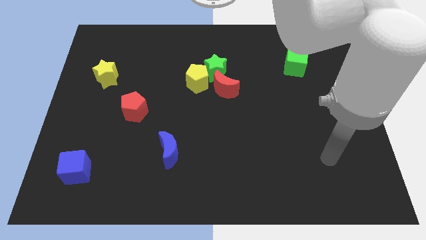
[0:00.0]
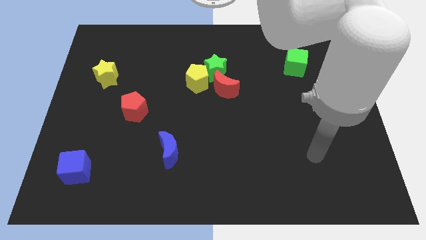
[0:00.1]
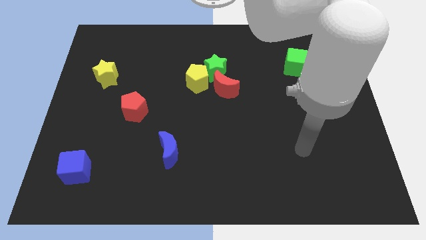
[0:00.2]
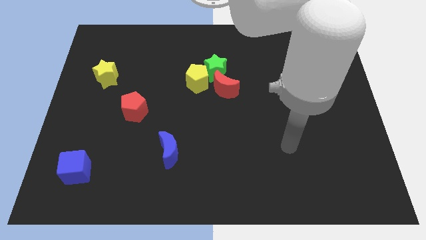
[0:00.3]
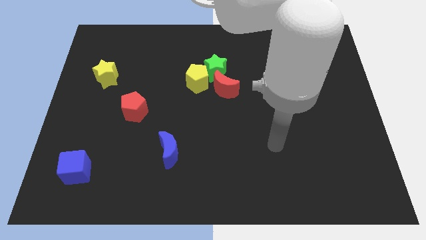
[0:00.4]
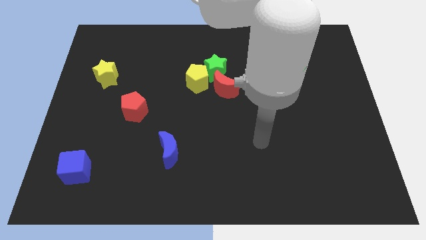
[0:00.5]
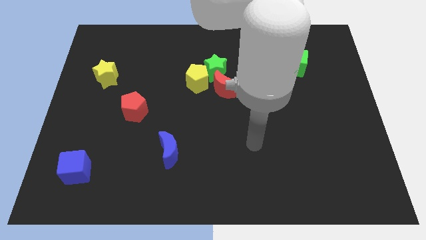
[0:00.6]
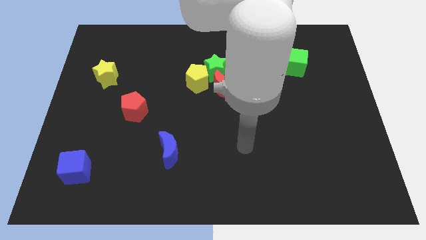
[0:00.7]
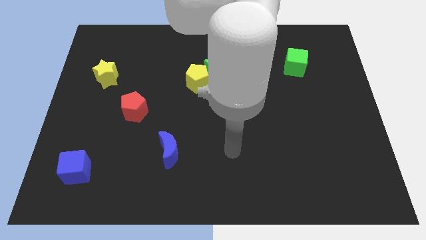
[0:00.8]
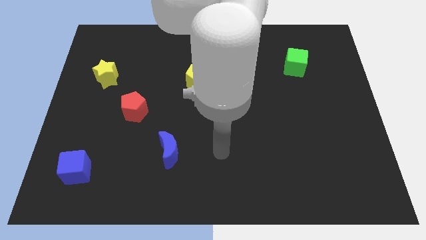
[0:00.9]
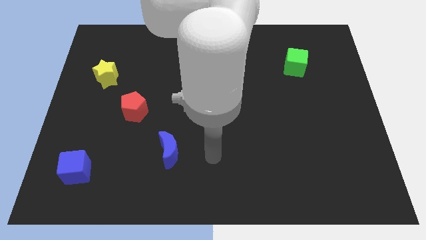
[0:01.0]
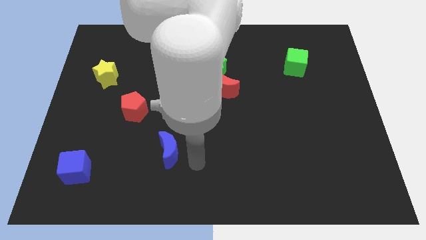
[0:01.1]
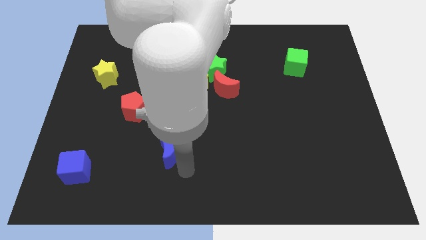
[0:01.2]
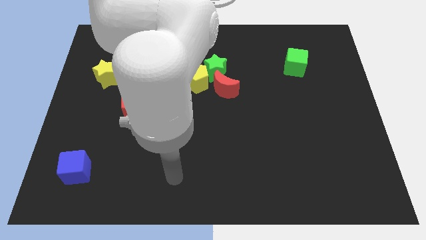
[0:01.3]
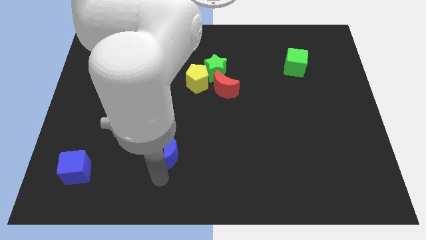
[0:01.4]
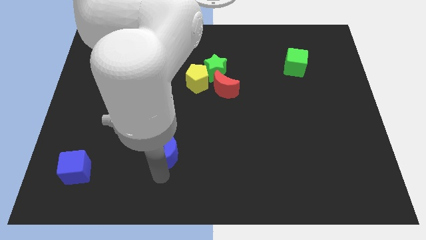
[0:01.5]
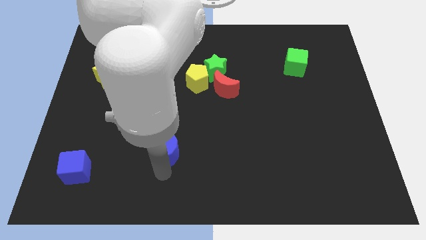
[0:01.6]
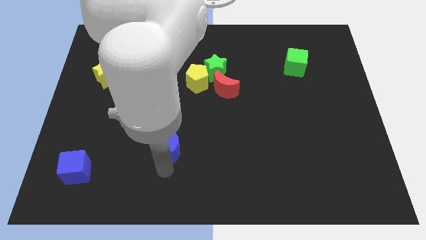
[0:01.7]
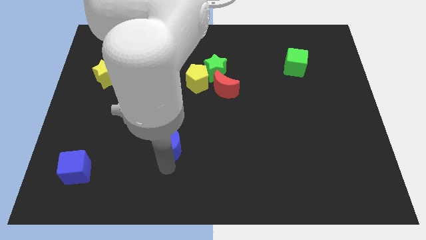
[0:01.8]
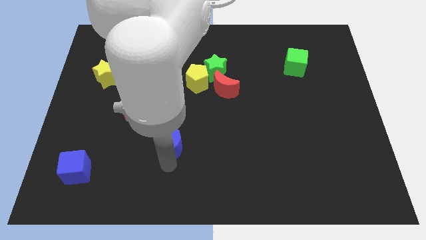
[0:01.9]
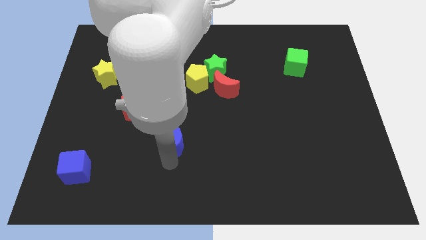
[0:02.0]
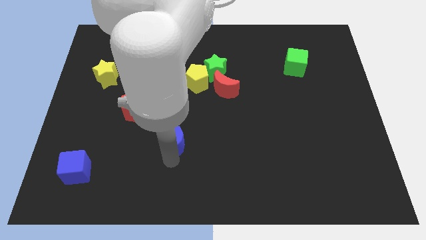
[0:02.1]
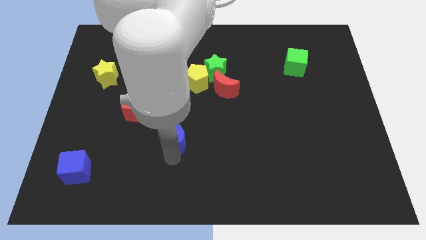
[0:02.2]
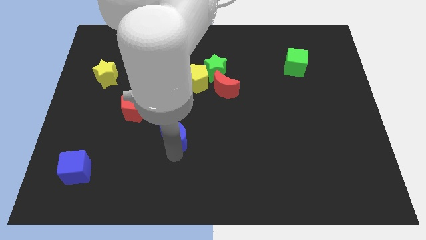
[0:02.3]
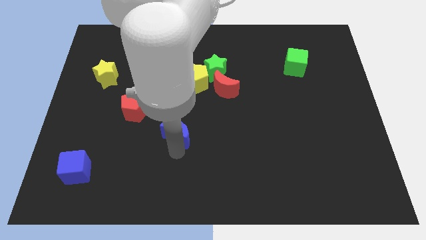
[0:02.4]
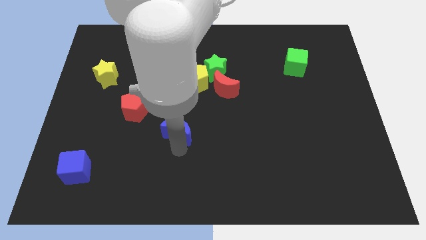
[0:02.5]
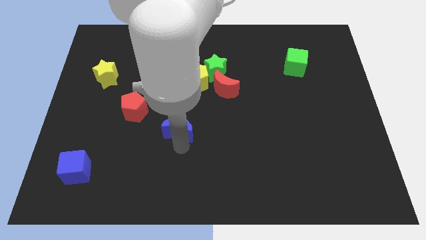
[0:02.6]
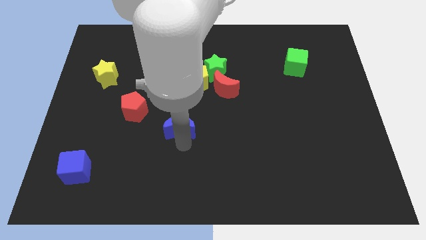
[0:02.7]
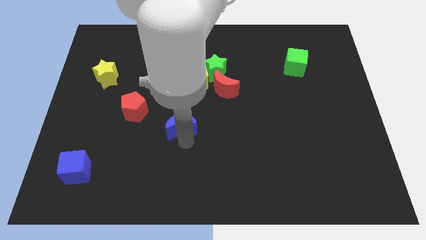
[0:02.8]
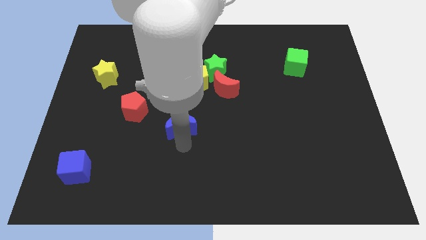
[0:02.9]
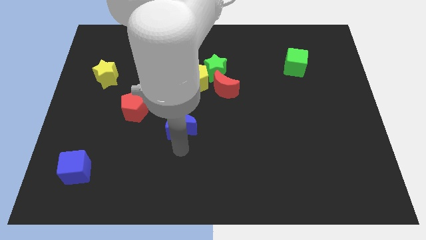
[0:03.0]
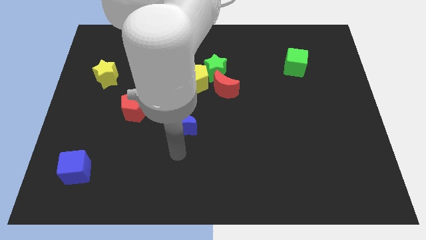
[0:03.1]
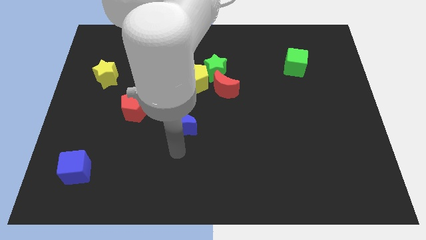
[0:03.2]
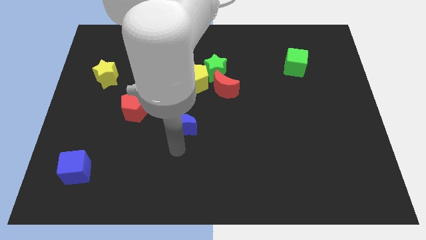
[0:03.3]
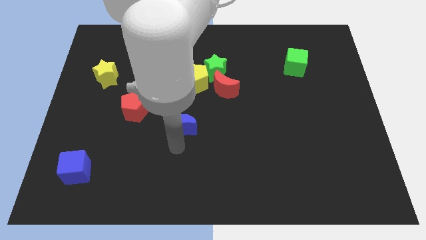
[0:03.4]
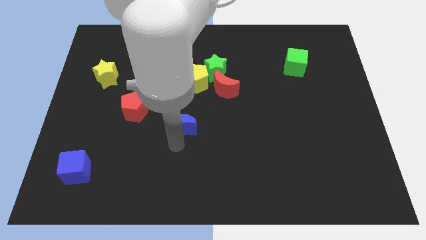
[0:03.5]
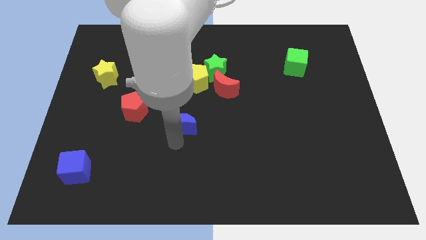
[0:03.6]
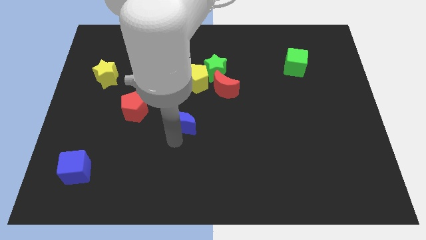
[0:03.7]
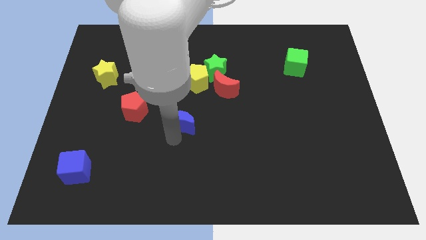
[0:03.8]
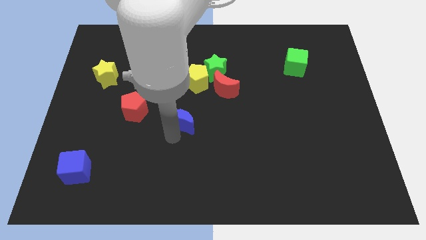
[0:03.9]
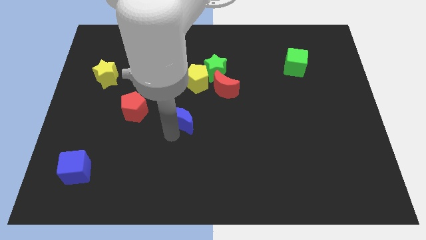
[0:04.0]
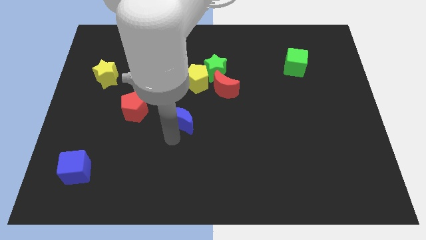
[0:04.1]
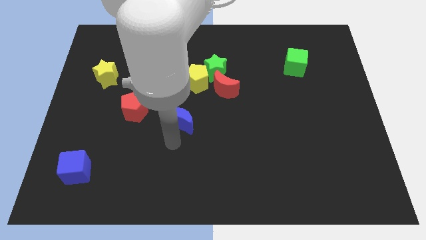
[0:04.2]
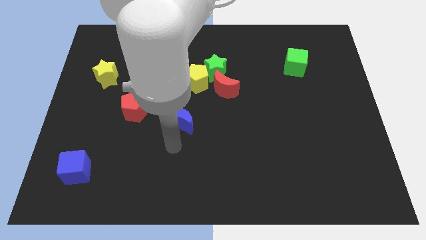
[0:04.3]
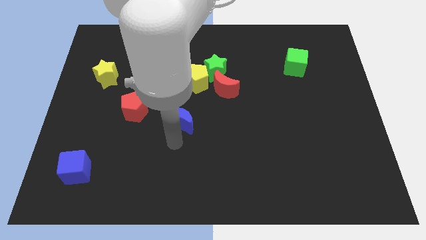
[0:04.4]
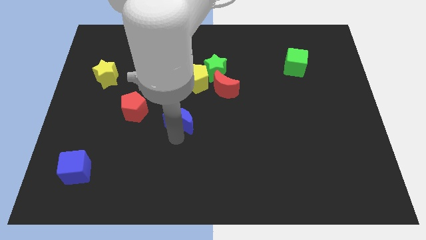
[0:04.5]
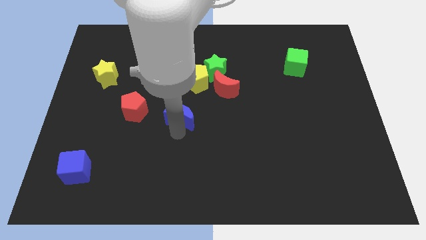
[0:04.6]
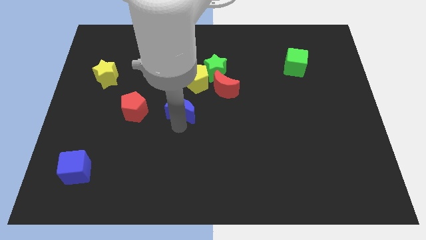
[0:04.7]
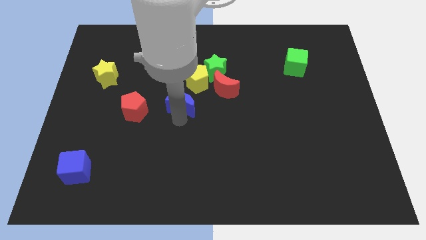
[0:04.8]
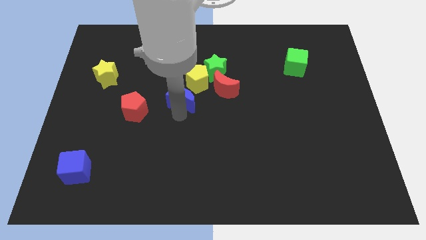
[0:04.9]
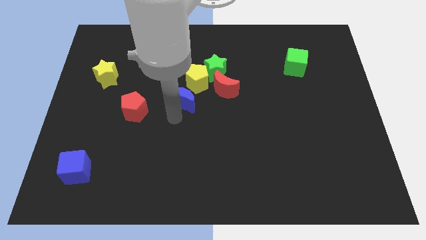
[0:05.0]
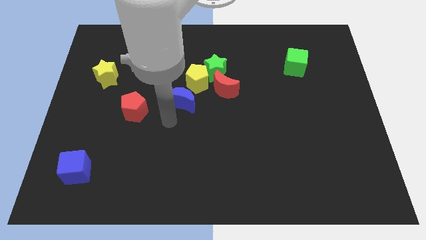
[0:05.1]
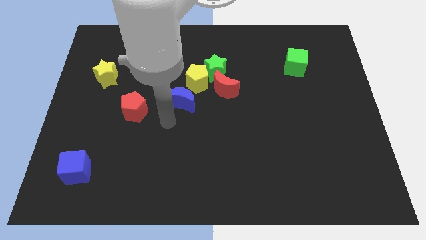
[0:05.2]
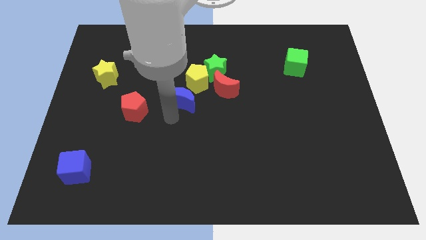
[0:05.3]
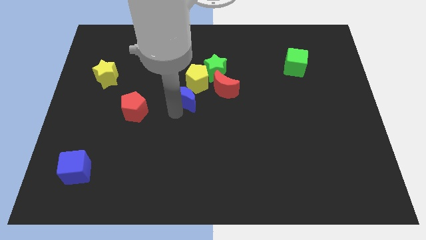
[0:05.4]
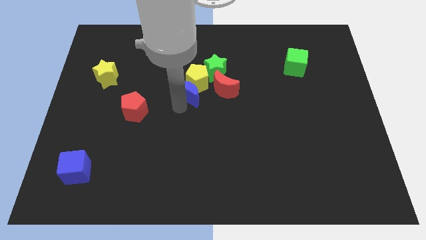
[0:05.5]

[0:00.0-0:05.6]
push the blue moon towards the yellow pentagon

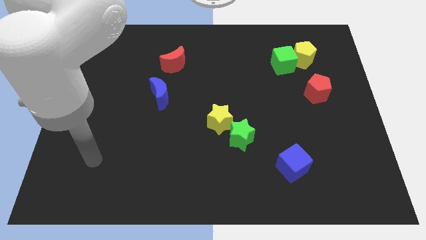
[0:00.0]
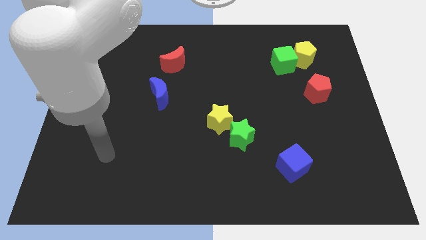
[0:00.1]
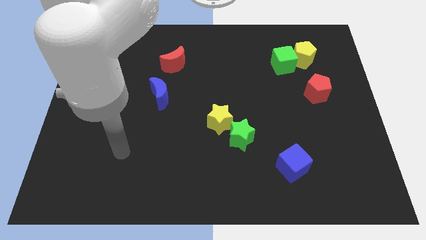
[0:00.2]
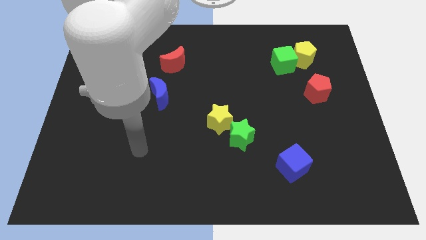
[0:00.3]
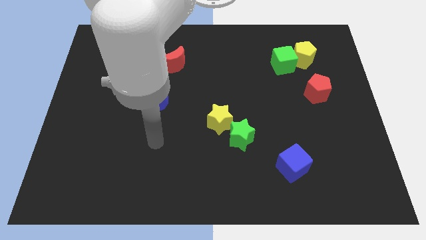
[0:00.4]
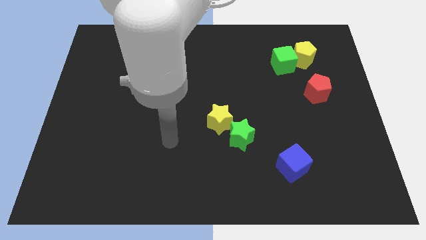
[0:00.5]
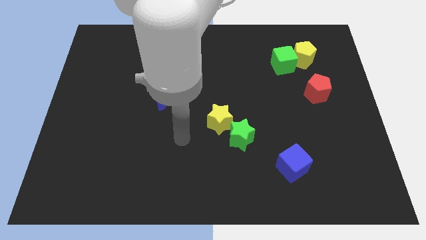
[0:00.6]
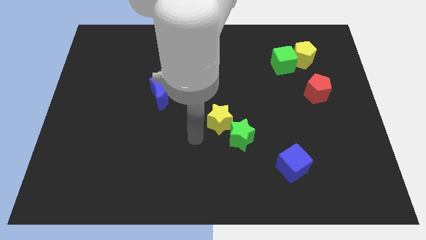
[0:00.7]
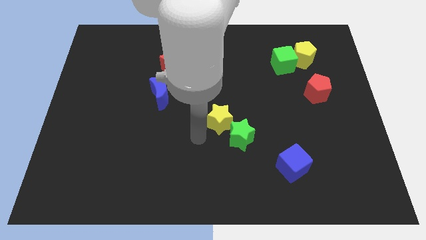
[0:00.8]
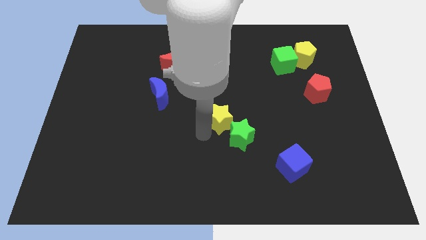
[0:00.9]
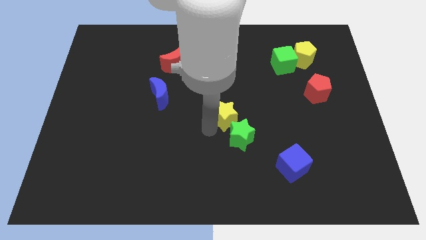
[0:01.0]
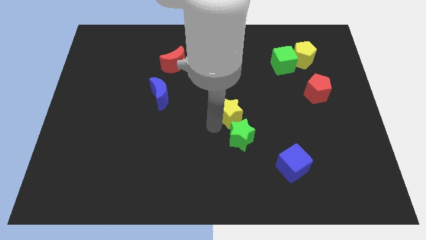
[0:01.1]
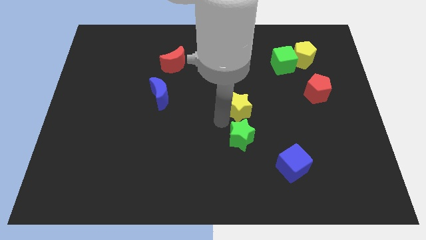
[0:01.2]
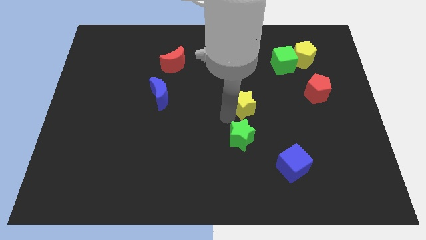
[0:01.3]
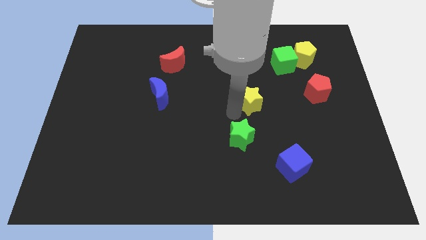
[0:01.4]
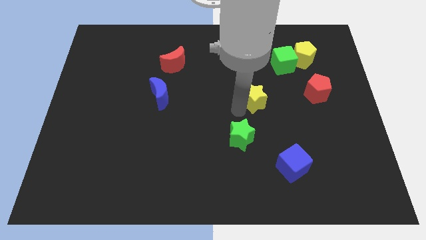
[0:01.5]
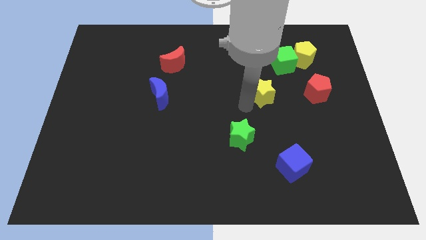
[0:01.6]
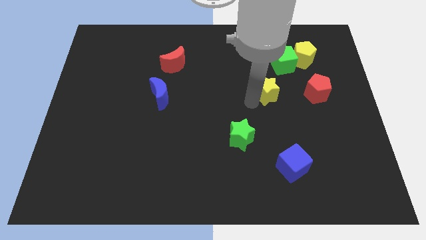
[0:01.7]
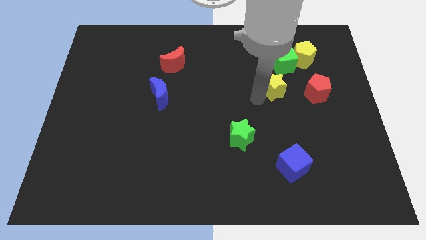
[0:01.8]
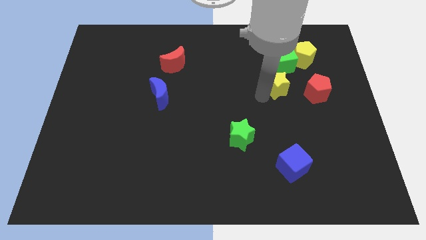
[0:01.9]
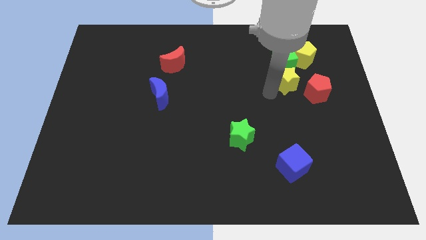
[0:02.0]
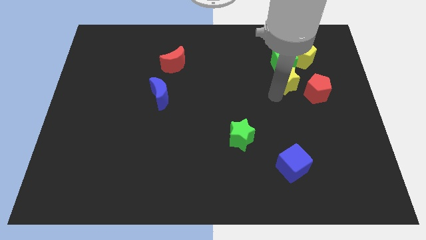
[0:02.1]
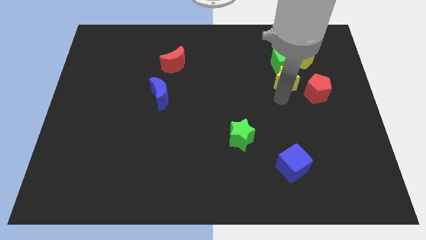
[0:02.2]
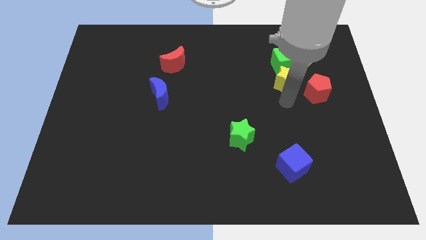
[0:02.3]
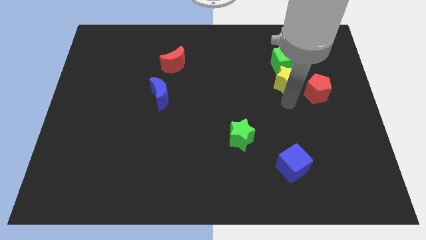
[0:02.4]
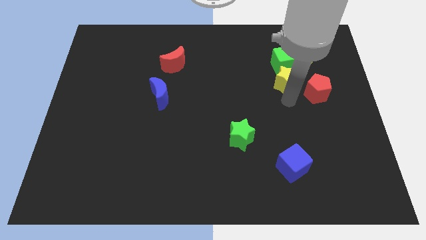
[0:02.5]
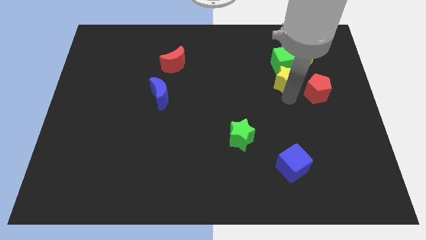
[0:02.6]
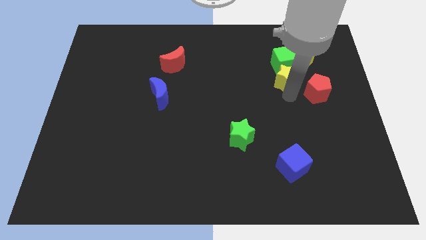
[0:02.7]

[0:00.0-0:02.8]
put the yellow star to the green cube
